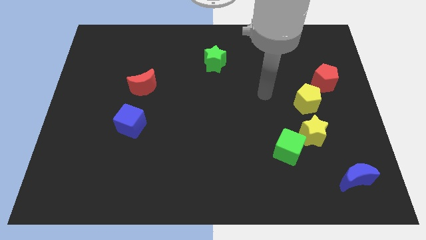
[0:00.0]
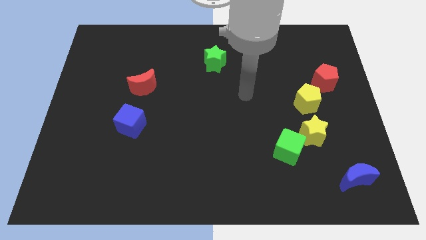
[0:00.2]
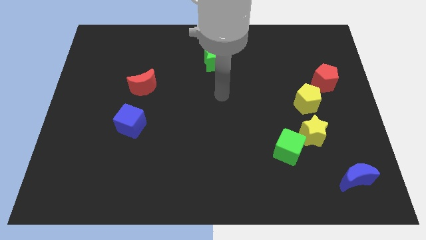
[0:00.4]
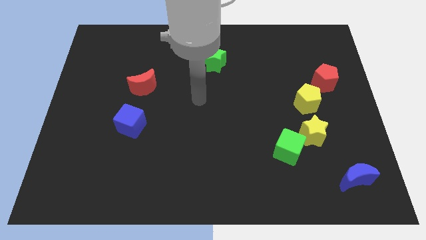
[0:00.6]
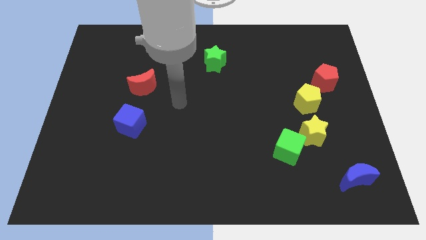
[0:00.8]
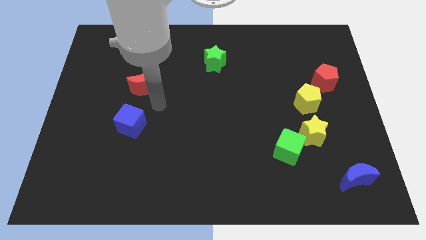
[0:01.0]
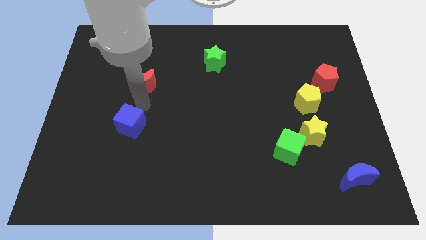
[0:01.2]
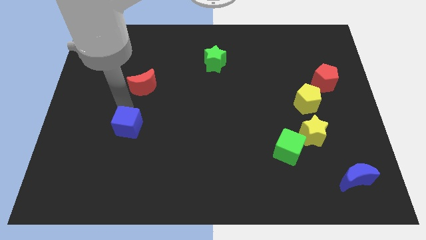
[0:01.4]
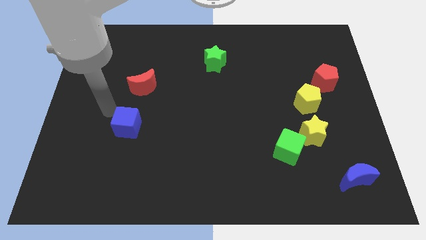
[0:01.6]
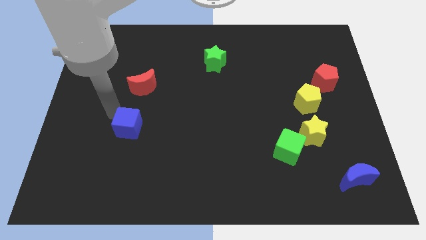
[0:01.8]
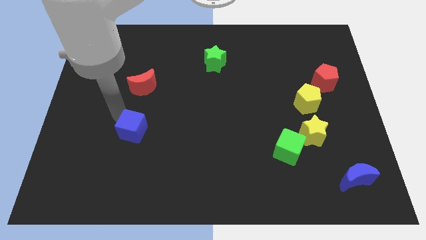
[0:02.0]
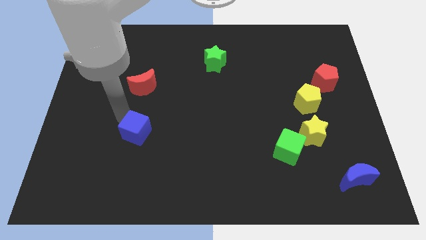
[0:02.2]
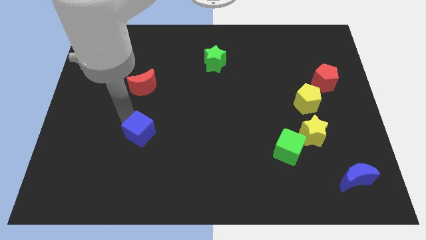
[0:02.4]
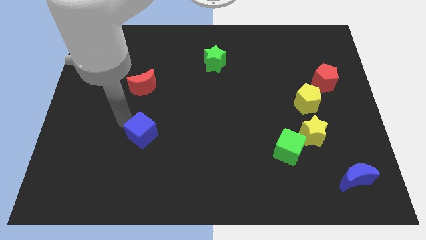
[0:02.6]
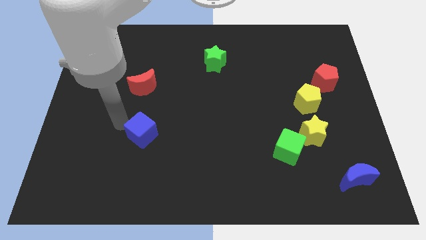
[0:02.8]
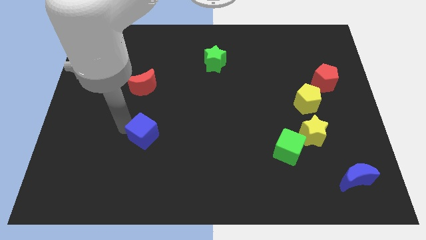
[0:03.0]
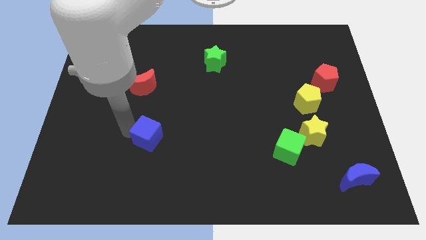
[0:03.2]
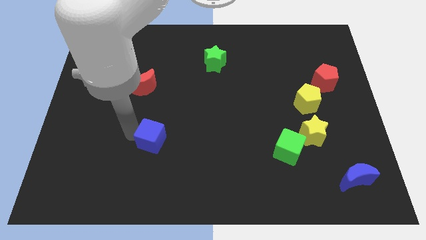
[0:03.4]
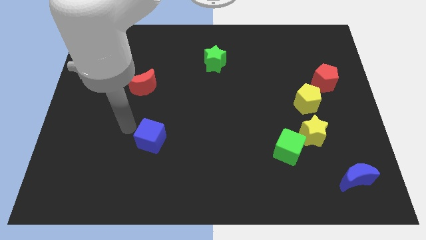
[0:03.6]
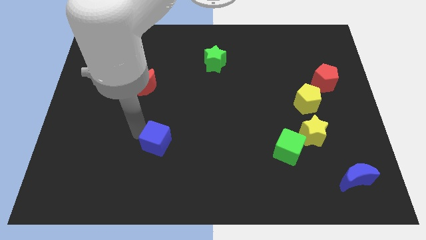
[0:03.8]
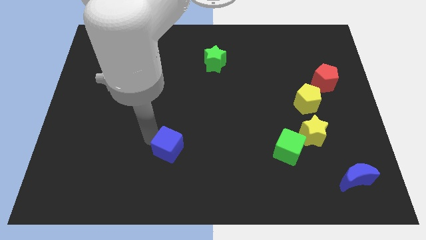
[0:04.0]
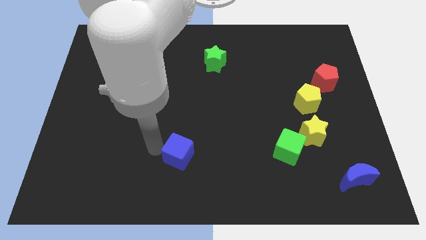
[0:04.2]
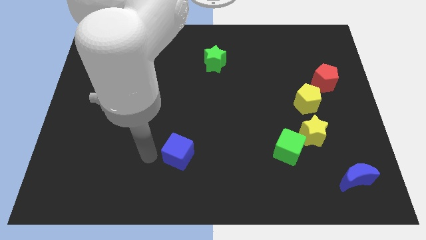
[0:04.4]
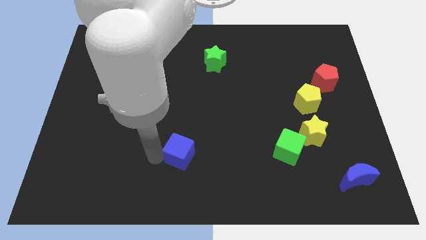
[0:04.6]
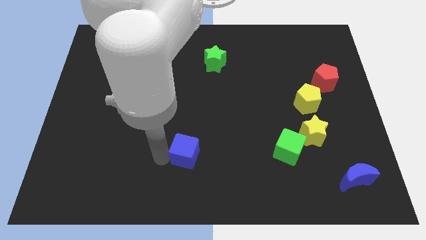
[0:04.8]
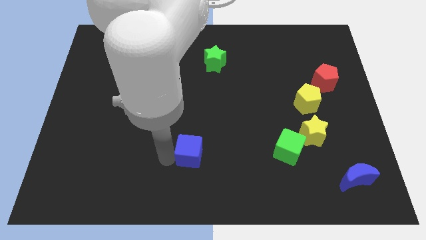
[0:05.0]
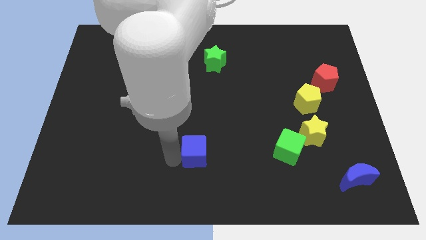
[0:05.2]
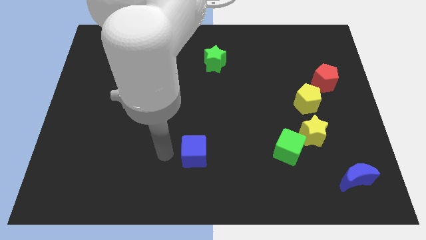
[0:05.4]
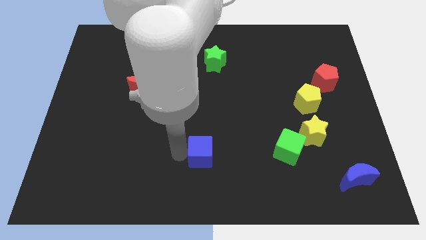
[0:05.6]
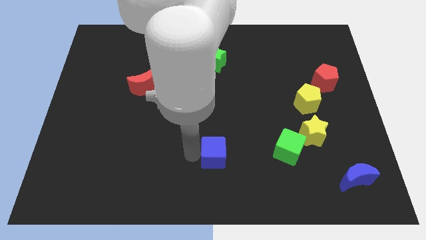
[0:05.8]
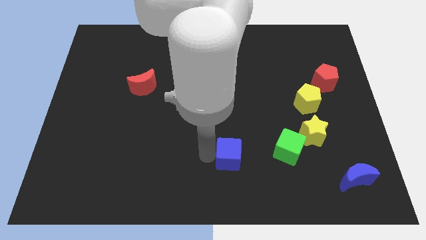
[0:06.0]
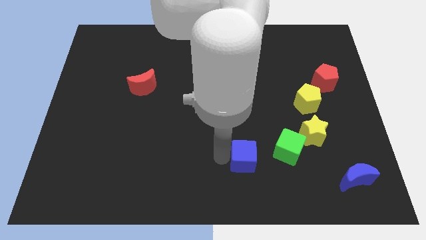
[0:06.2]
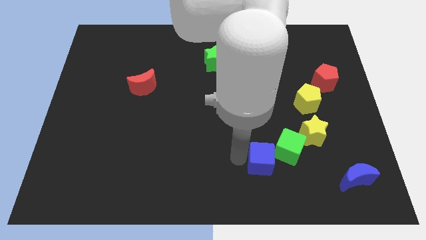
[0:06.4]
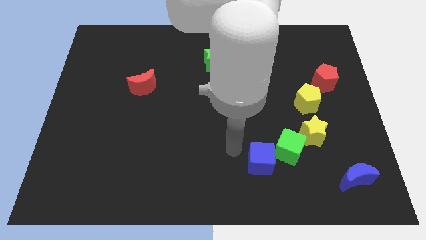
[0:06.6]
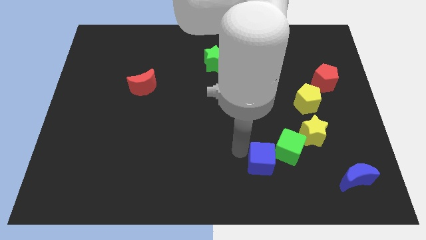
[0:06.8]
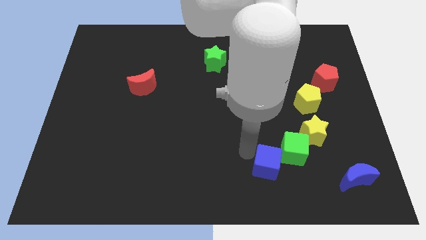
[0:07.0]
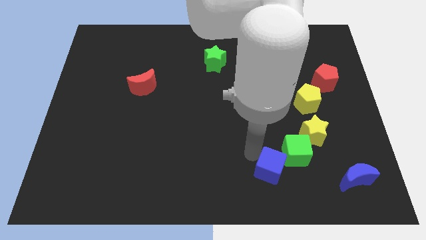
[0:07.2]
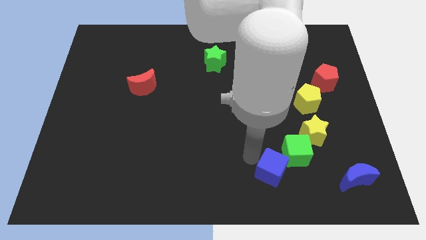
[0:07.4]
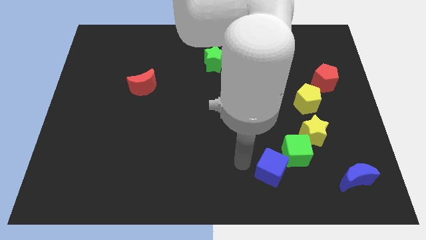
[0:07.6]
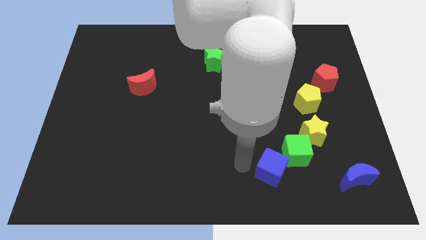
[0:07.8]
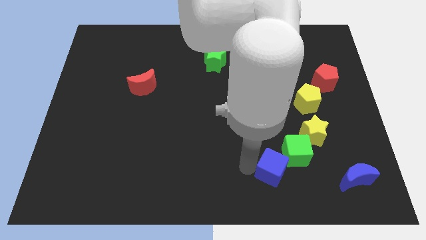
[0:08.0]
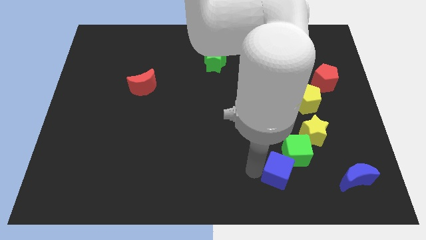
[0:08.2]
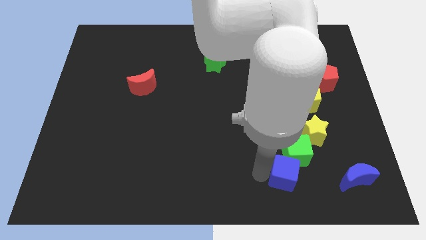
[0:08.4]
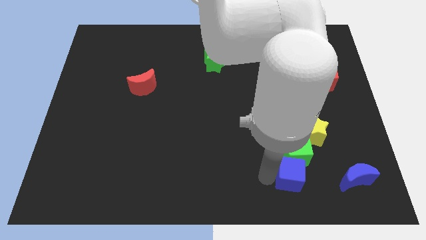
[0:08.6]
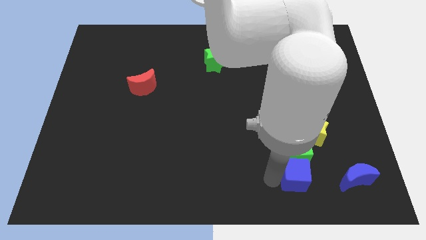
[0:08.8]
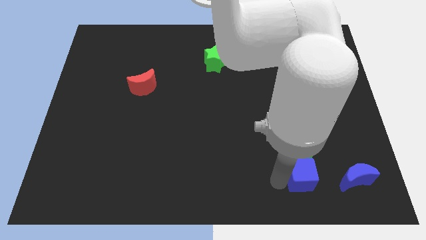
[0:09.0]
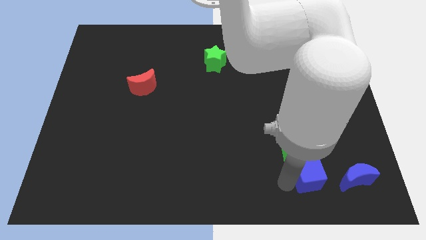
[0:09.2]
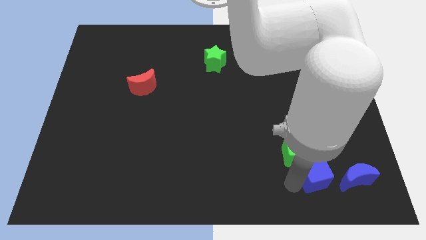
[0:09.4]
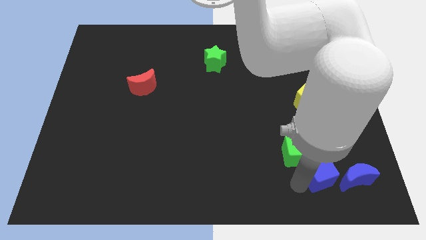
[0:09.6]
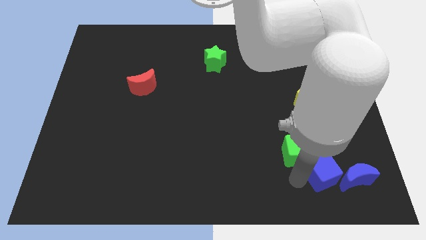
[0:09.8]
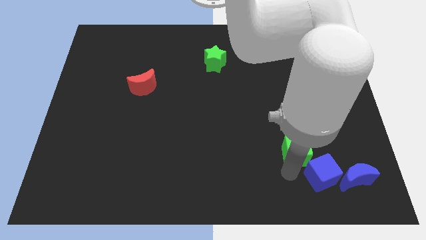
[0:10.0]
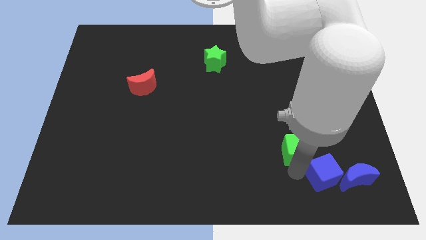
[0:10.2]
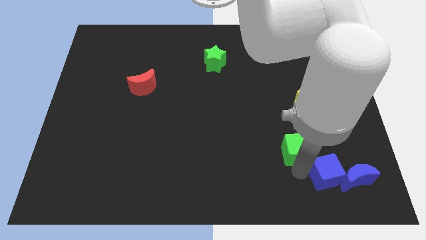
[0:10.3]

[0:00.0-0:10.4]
push the blue cube next to the blue moon

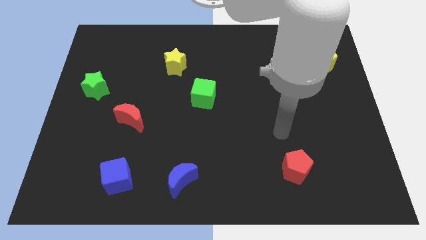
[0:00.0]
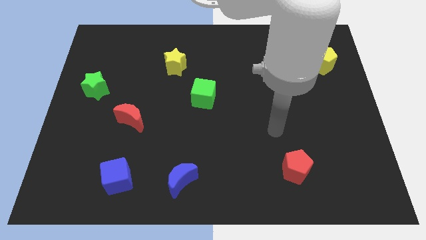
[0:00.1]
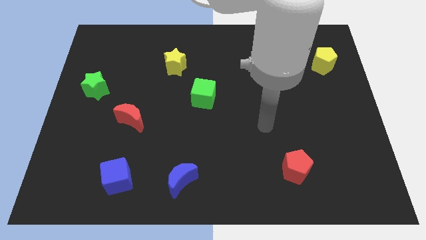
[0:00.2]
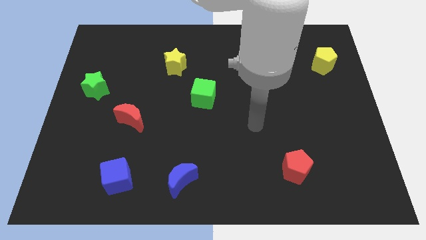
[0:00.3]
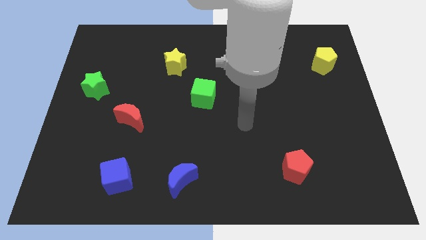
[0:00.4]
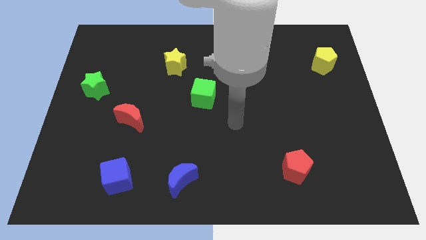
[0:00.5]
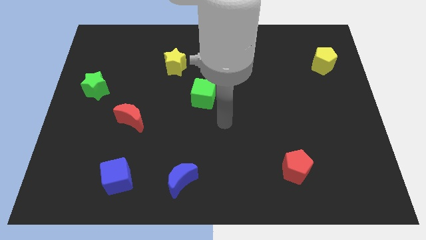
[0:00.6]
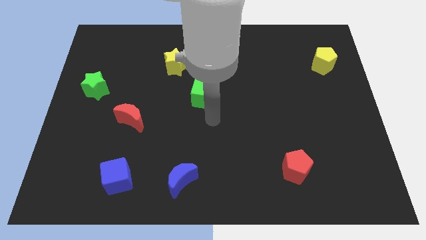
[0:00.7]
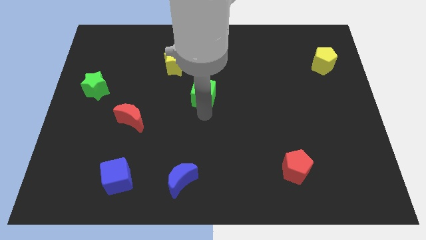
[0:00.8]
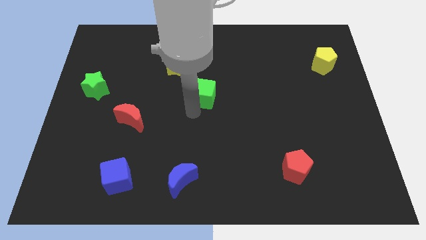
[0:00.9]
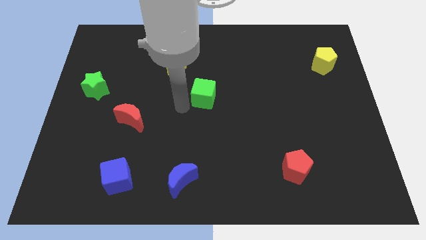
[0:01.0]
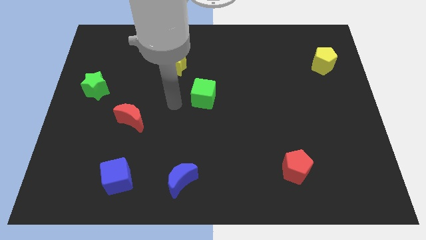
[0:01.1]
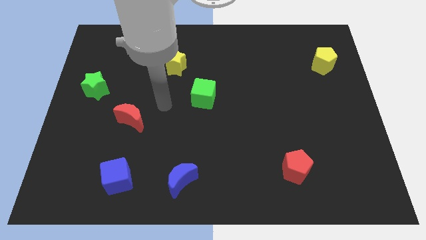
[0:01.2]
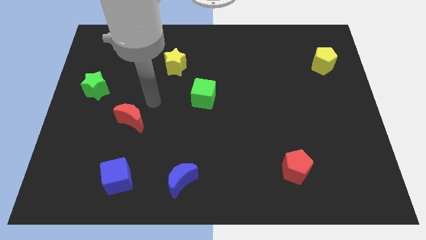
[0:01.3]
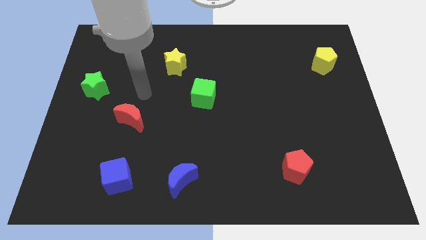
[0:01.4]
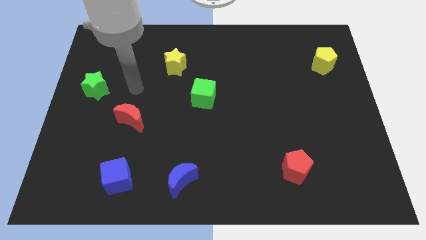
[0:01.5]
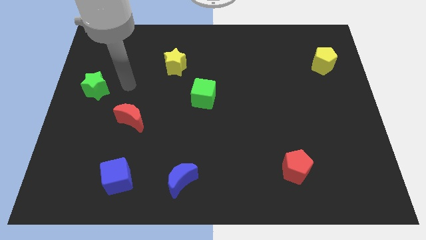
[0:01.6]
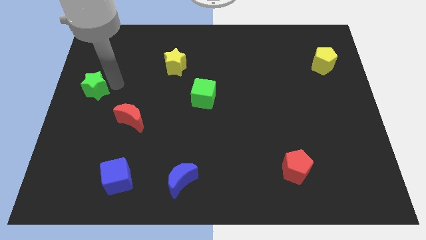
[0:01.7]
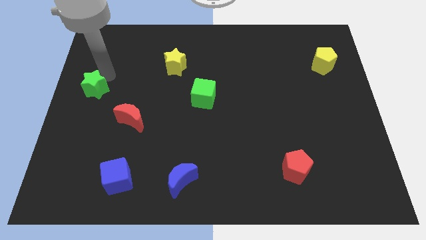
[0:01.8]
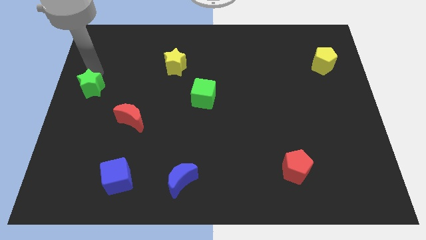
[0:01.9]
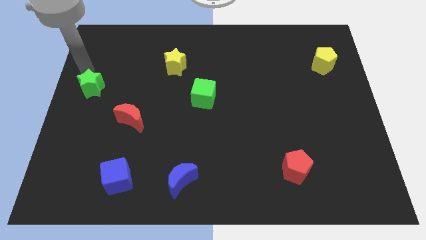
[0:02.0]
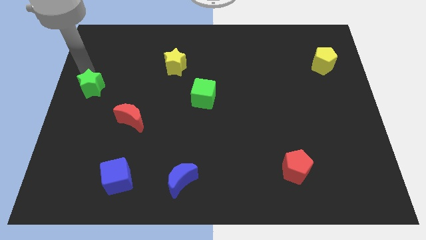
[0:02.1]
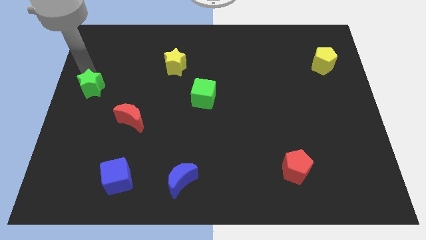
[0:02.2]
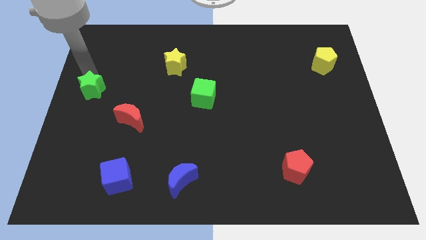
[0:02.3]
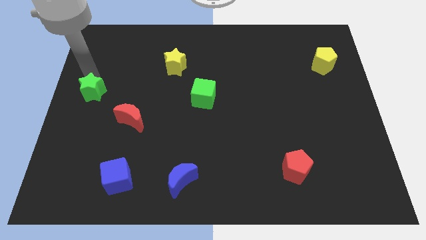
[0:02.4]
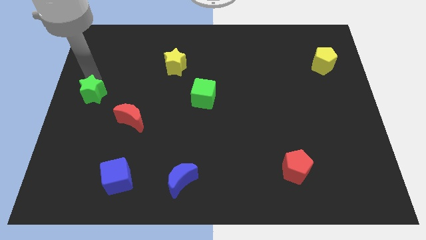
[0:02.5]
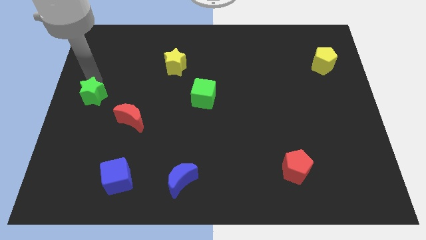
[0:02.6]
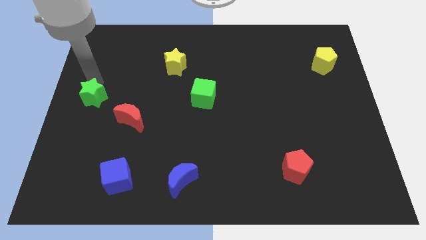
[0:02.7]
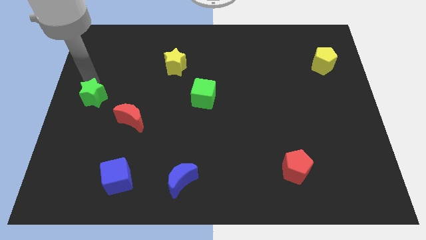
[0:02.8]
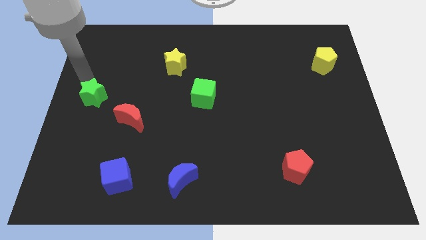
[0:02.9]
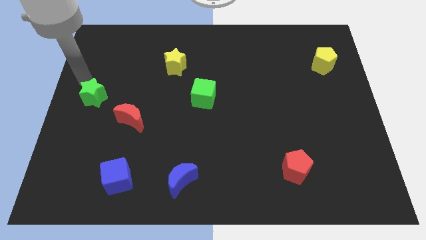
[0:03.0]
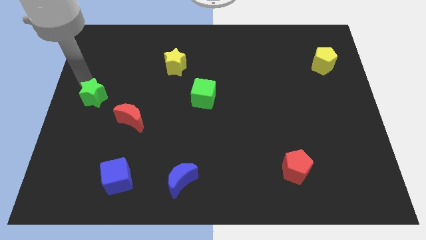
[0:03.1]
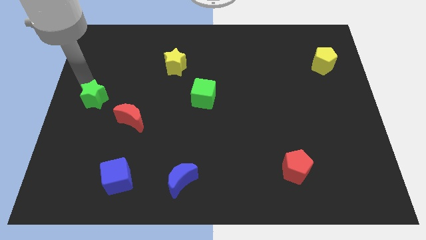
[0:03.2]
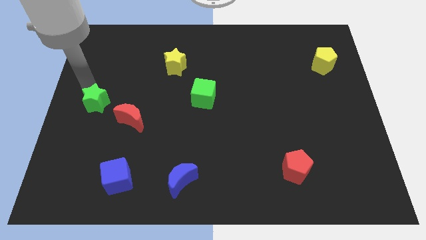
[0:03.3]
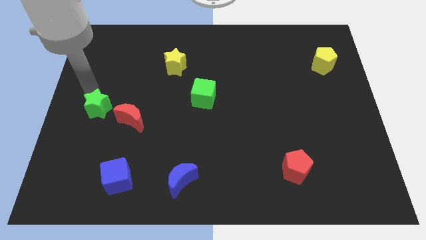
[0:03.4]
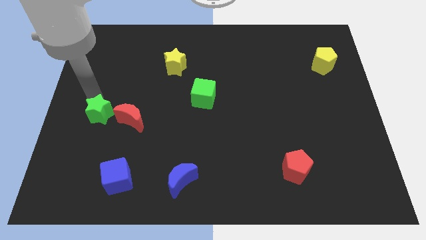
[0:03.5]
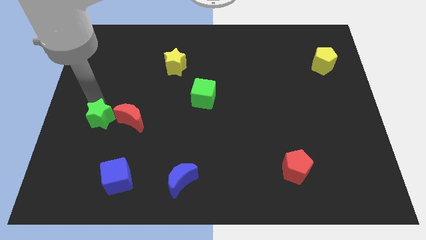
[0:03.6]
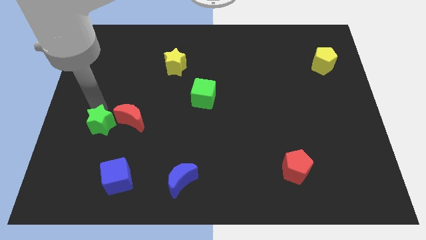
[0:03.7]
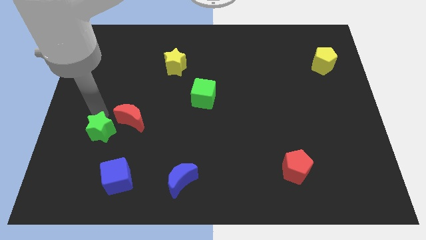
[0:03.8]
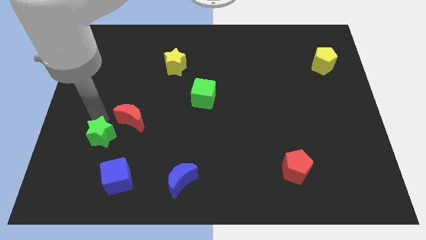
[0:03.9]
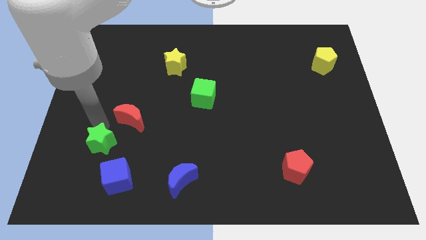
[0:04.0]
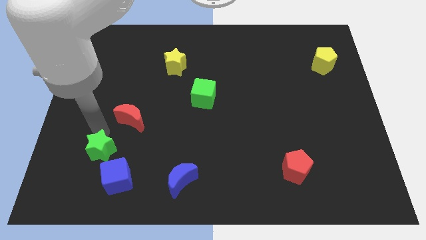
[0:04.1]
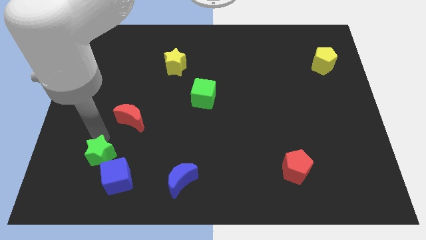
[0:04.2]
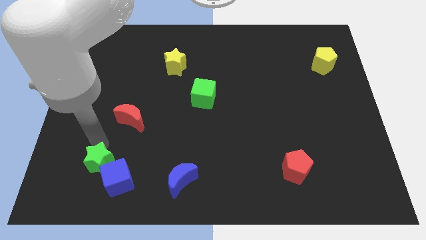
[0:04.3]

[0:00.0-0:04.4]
put the green star next to the blue cube
